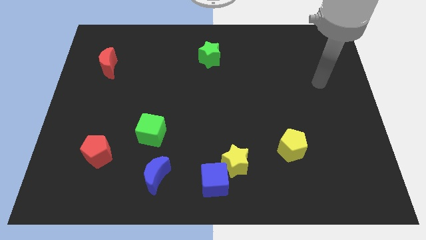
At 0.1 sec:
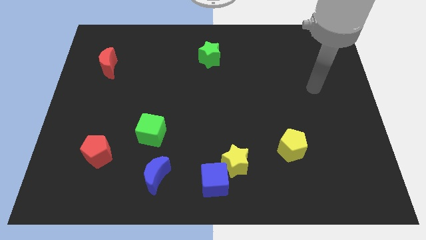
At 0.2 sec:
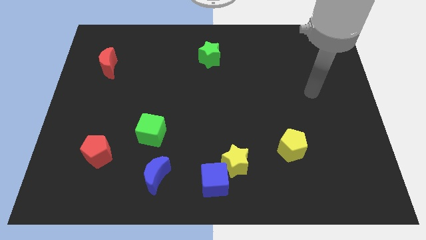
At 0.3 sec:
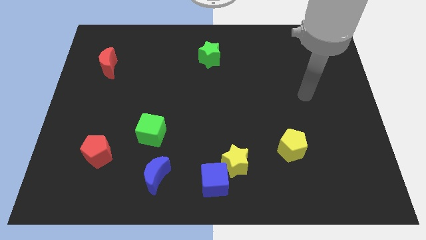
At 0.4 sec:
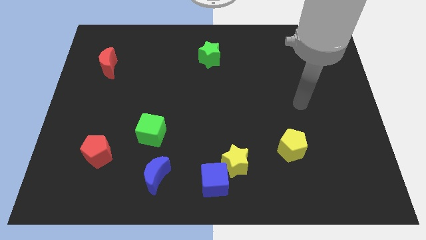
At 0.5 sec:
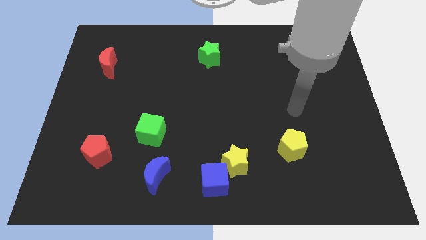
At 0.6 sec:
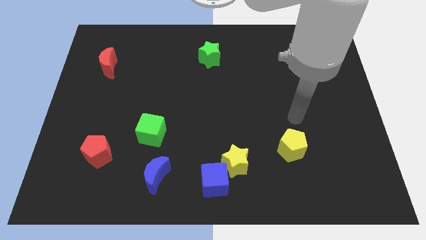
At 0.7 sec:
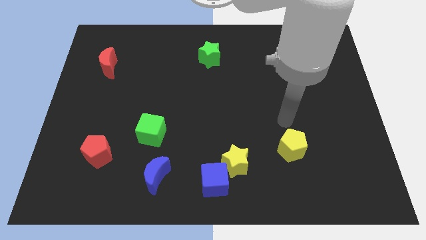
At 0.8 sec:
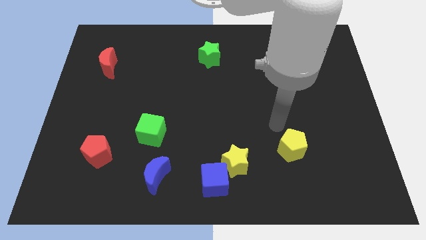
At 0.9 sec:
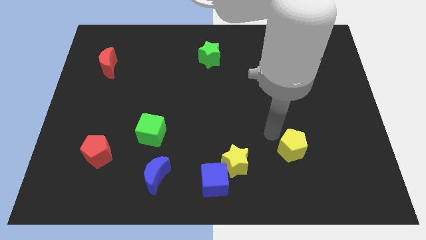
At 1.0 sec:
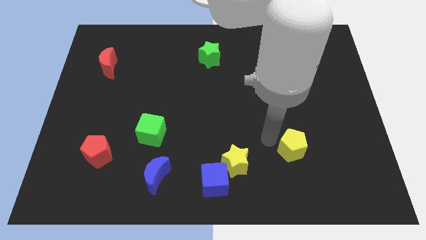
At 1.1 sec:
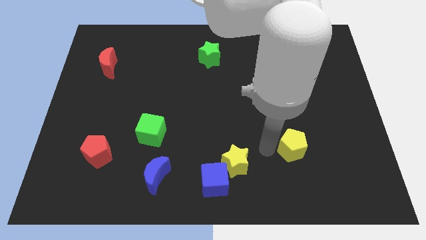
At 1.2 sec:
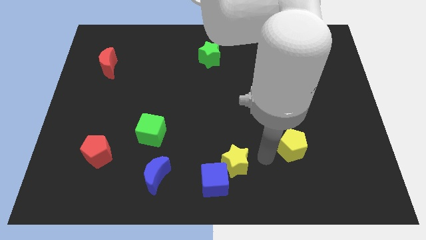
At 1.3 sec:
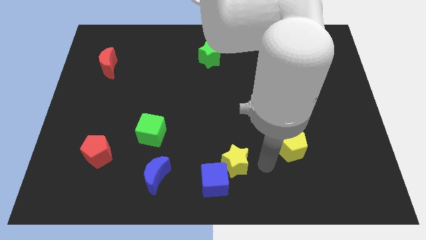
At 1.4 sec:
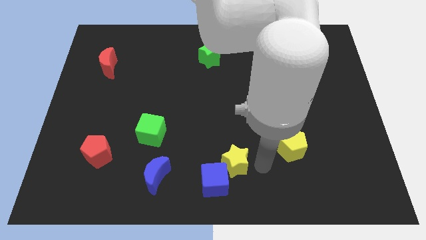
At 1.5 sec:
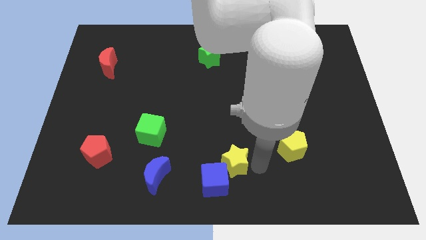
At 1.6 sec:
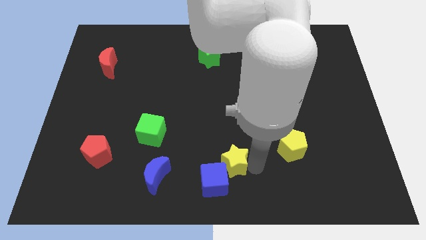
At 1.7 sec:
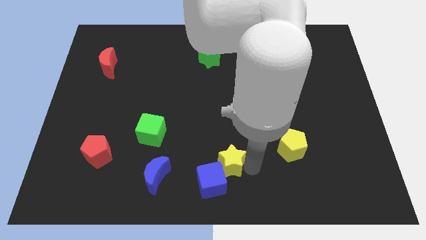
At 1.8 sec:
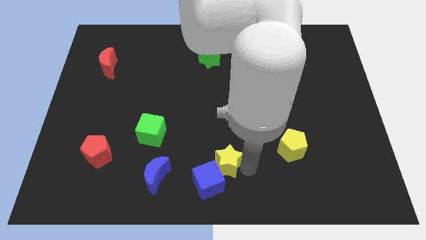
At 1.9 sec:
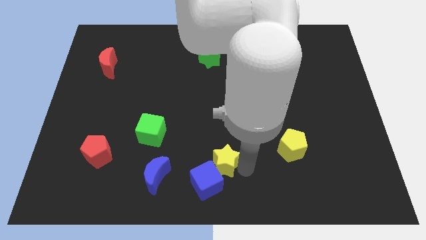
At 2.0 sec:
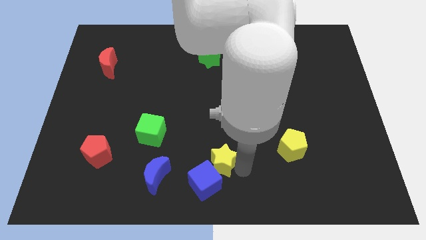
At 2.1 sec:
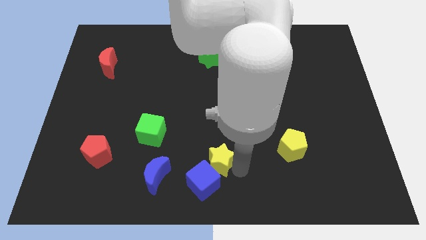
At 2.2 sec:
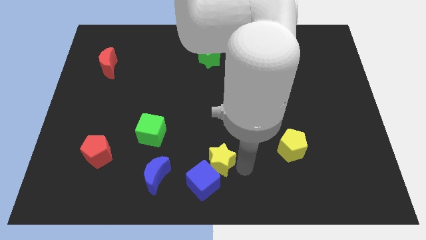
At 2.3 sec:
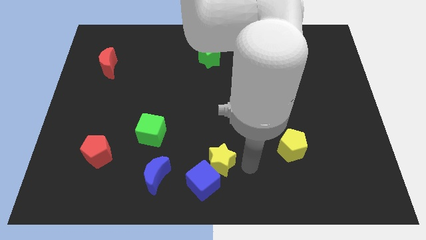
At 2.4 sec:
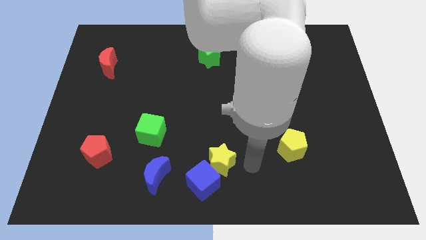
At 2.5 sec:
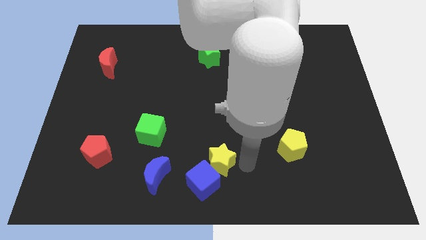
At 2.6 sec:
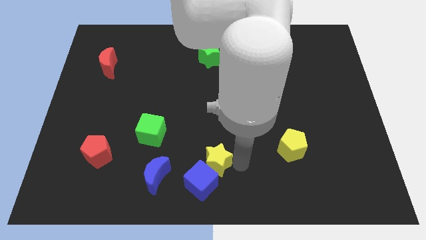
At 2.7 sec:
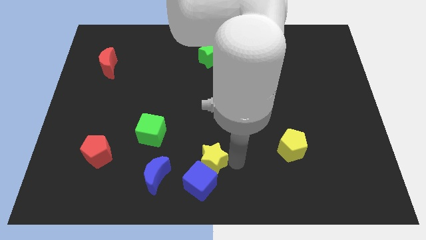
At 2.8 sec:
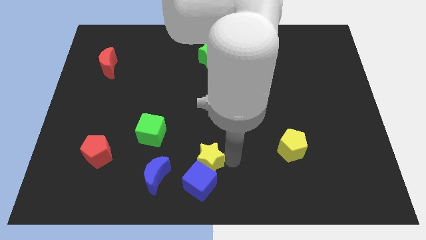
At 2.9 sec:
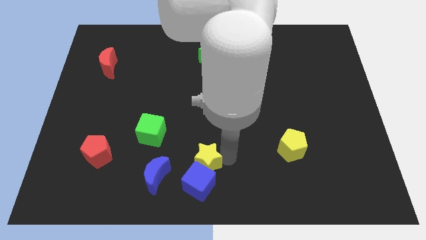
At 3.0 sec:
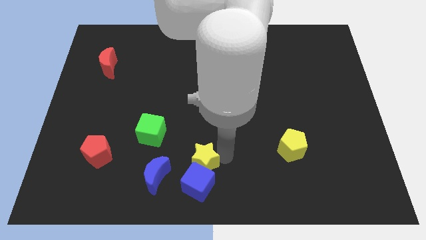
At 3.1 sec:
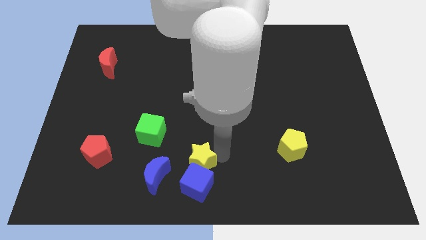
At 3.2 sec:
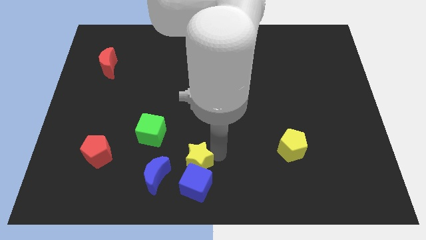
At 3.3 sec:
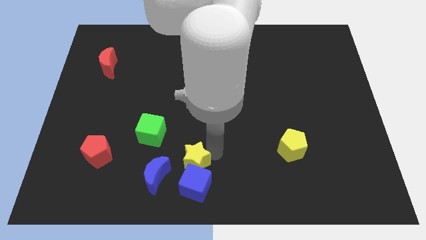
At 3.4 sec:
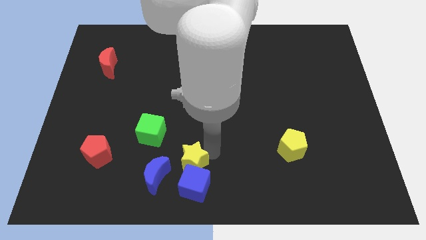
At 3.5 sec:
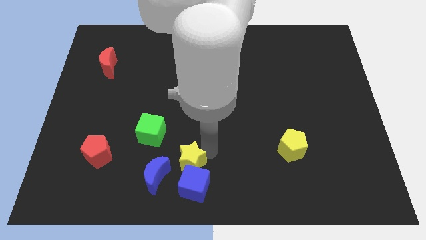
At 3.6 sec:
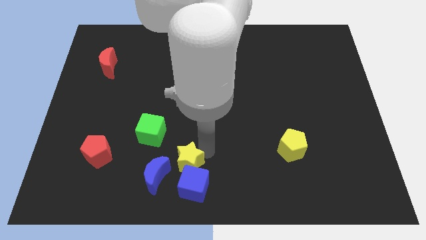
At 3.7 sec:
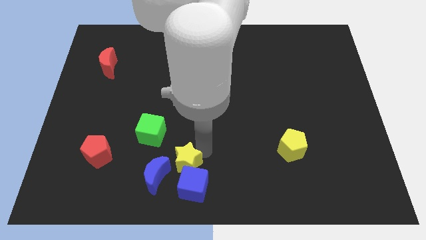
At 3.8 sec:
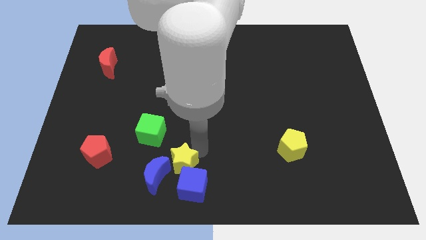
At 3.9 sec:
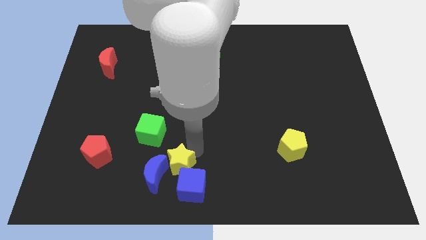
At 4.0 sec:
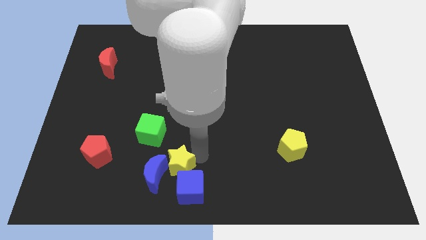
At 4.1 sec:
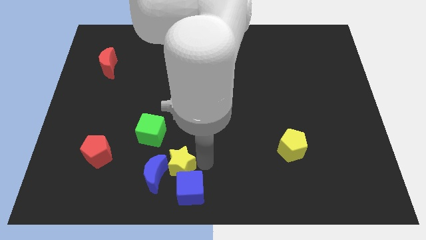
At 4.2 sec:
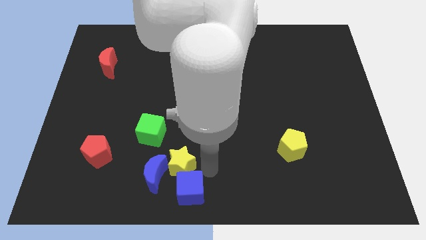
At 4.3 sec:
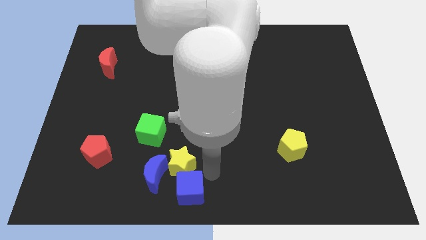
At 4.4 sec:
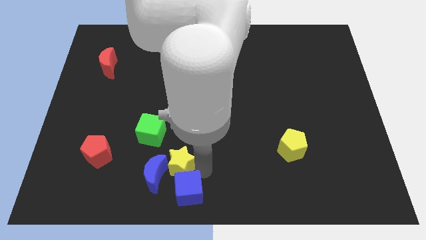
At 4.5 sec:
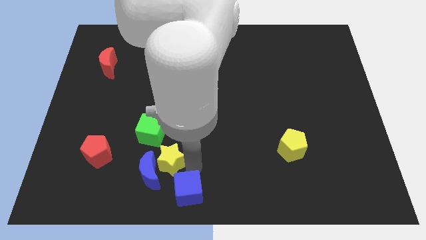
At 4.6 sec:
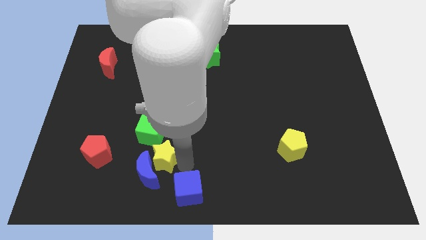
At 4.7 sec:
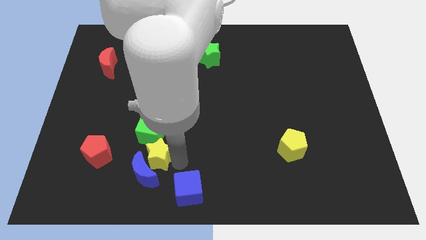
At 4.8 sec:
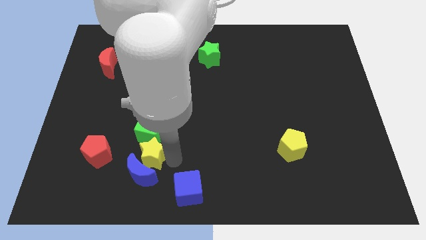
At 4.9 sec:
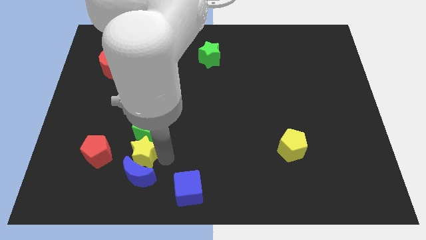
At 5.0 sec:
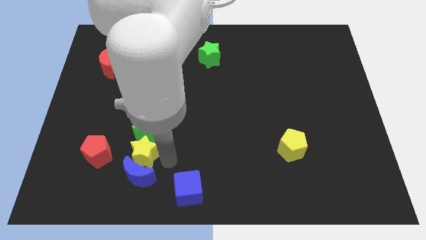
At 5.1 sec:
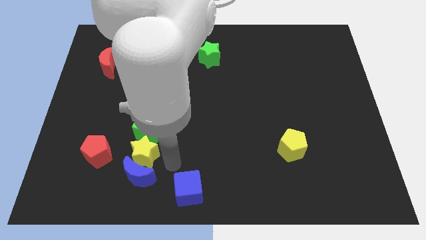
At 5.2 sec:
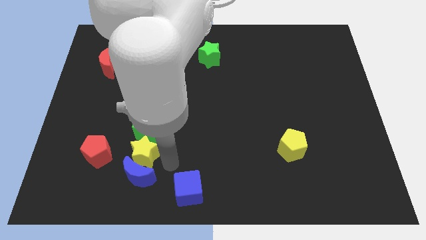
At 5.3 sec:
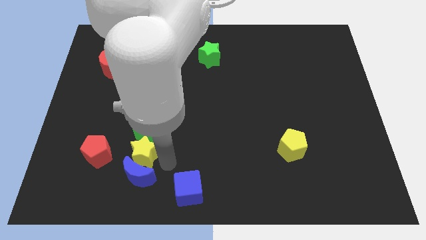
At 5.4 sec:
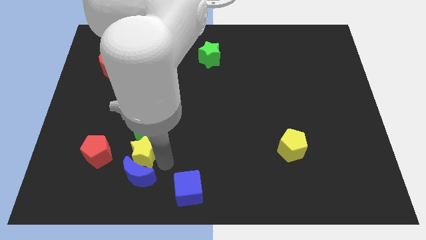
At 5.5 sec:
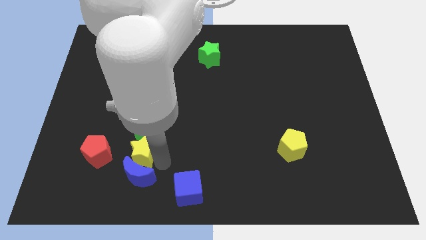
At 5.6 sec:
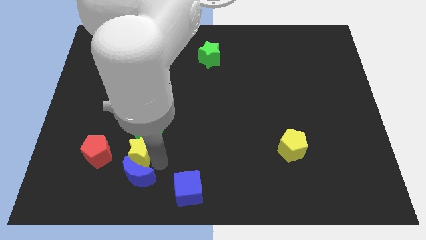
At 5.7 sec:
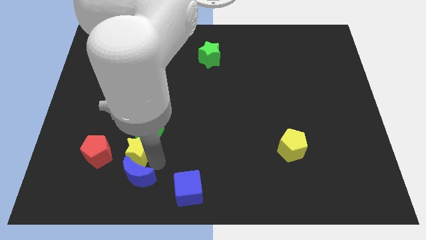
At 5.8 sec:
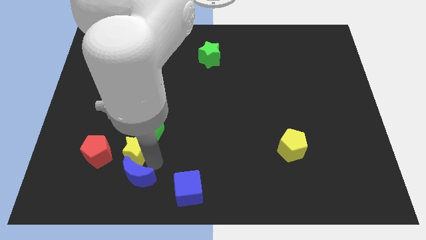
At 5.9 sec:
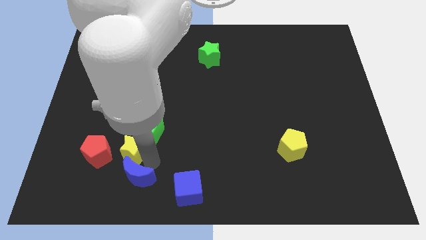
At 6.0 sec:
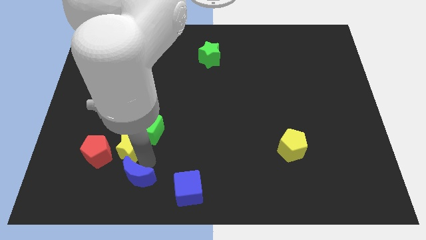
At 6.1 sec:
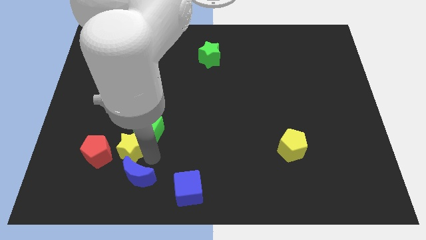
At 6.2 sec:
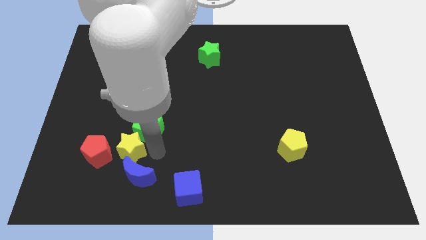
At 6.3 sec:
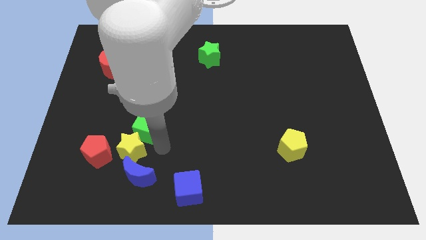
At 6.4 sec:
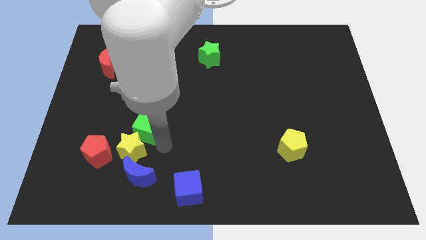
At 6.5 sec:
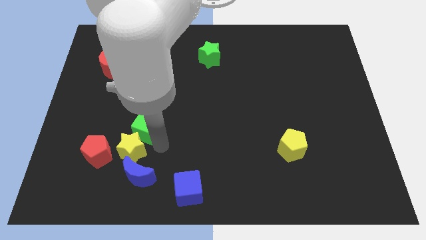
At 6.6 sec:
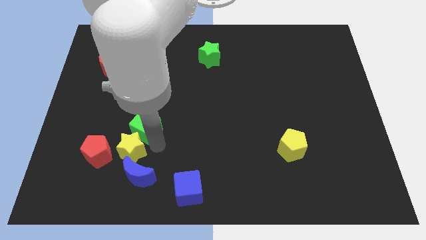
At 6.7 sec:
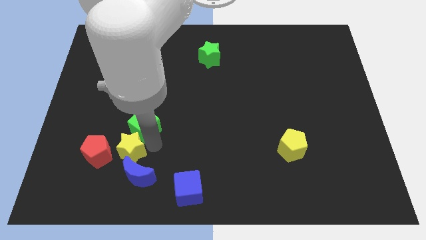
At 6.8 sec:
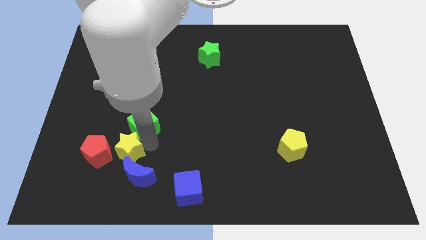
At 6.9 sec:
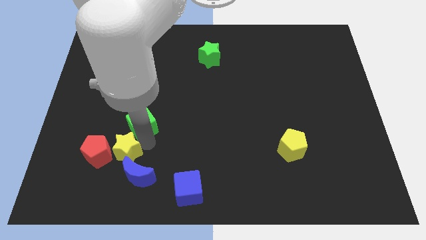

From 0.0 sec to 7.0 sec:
push the yellow star next to the red pentagon

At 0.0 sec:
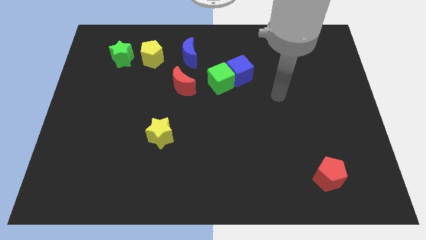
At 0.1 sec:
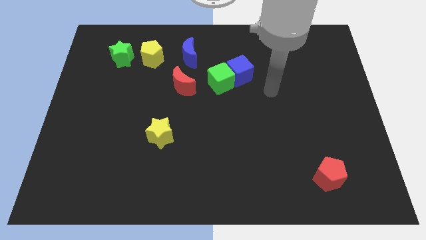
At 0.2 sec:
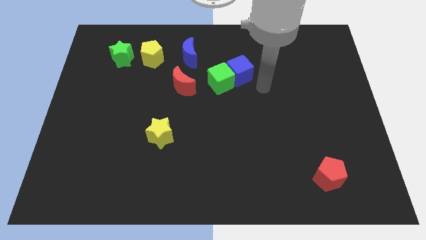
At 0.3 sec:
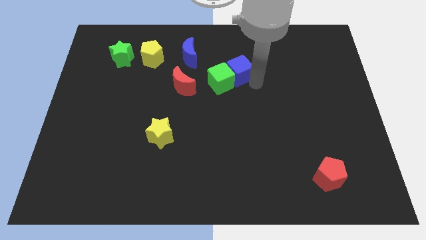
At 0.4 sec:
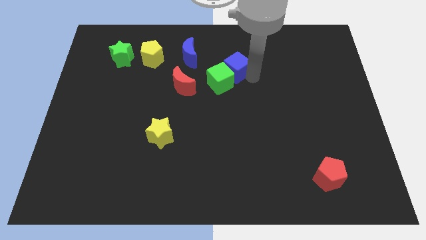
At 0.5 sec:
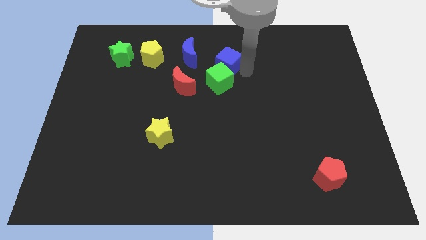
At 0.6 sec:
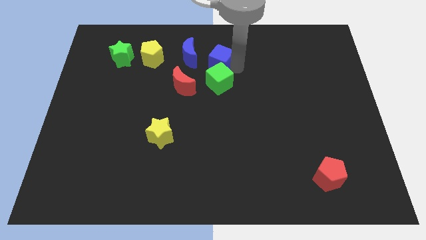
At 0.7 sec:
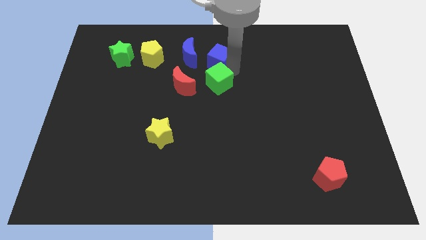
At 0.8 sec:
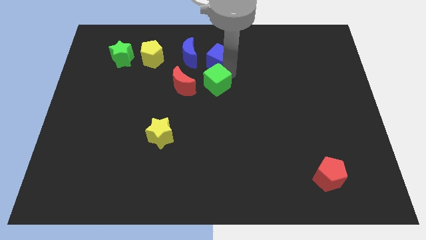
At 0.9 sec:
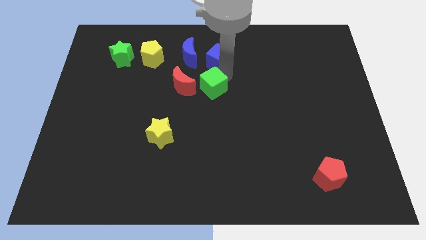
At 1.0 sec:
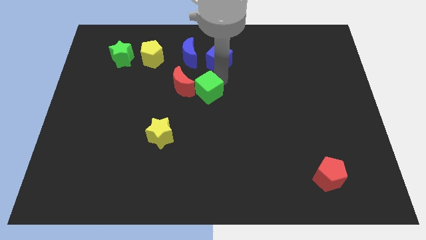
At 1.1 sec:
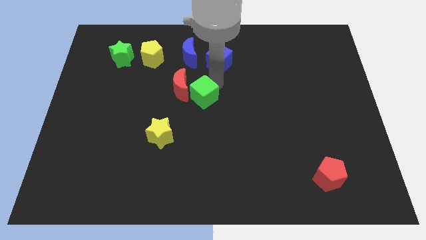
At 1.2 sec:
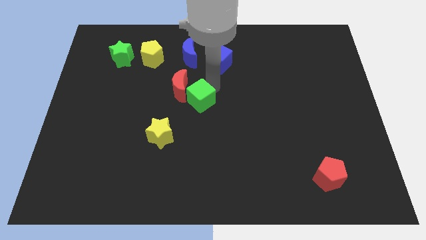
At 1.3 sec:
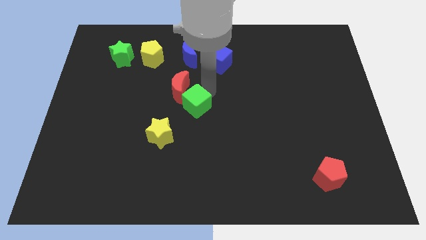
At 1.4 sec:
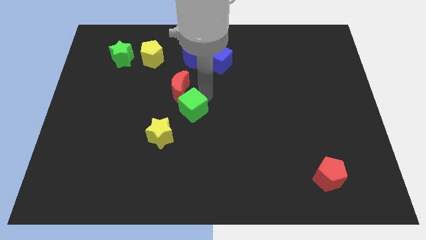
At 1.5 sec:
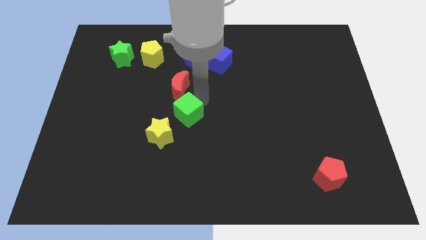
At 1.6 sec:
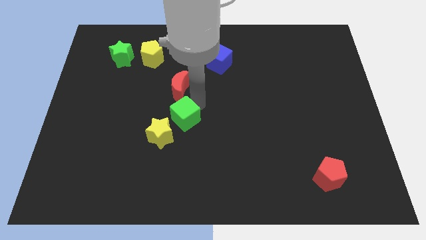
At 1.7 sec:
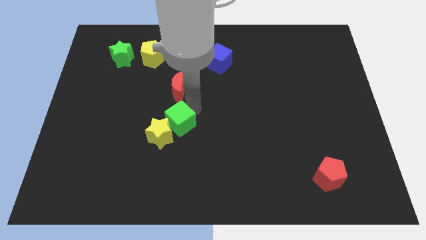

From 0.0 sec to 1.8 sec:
put the green cube to the yellow star
